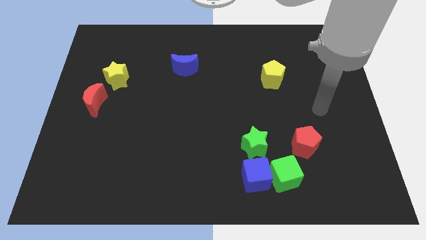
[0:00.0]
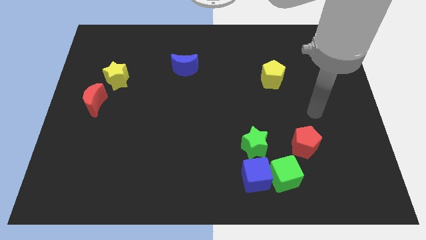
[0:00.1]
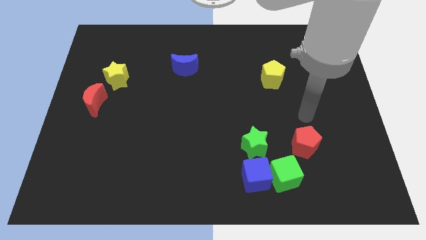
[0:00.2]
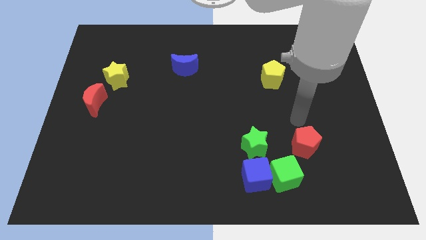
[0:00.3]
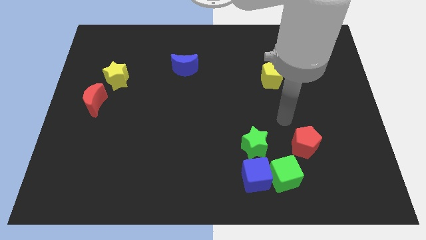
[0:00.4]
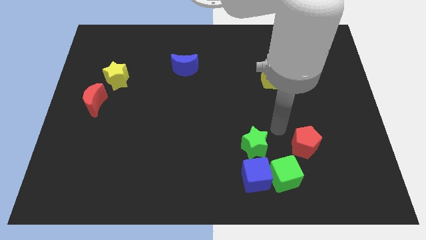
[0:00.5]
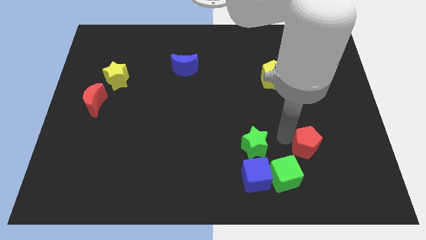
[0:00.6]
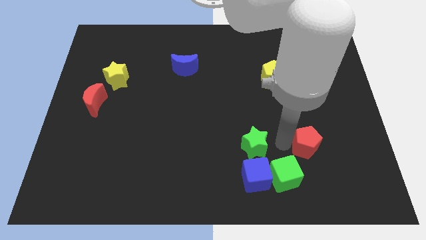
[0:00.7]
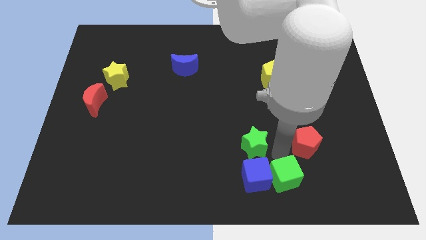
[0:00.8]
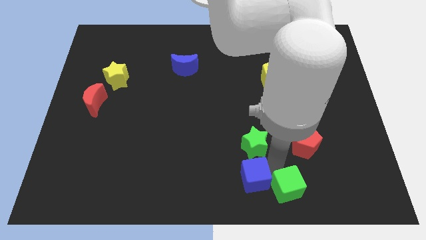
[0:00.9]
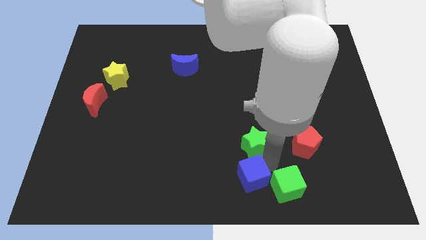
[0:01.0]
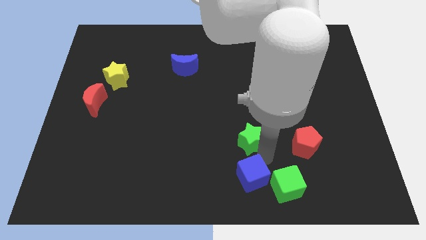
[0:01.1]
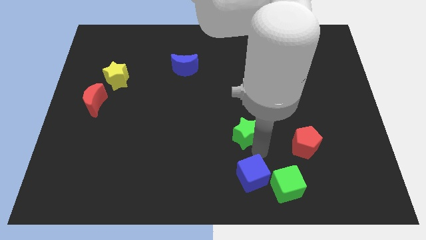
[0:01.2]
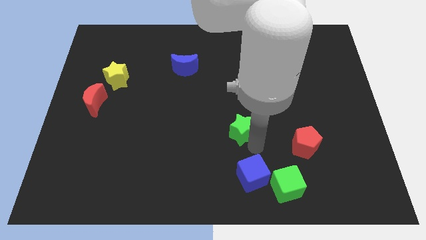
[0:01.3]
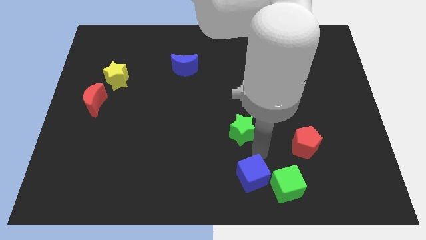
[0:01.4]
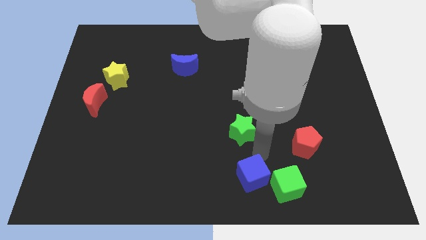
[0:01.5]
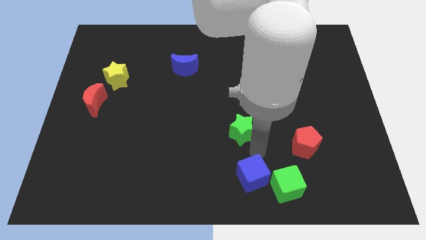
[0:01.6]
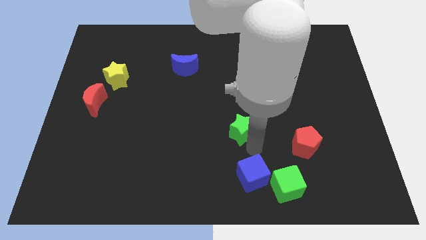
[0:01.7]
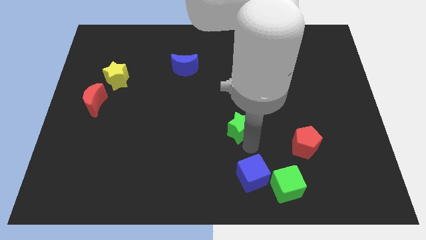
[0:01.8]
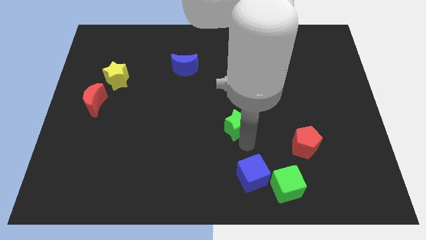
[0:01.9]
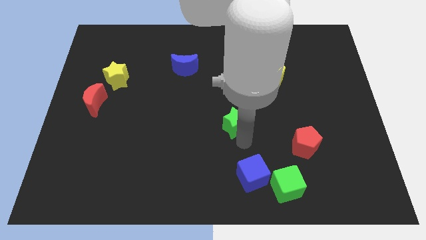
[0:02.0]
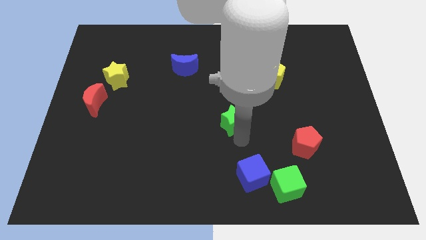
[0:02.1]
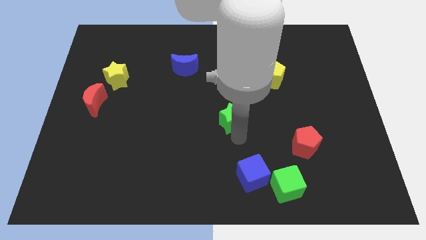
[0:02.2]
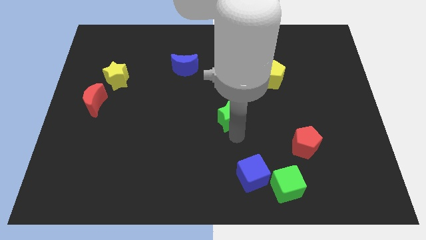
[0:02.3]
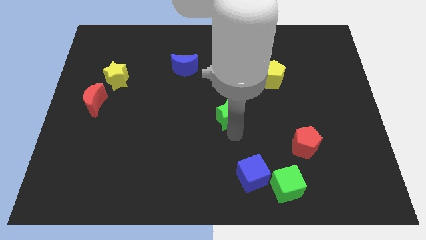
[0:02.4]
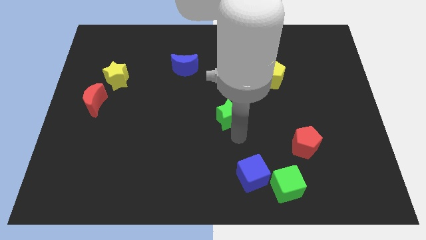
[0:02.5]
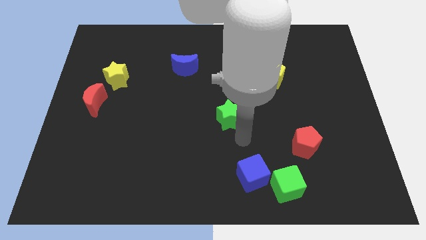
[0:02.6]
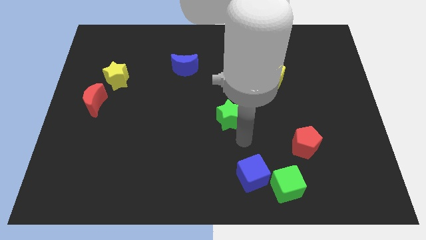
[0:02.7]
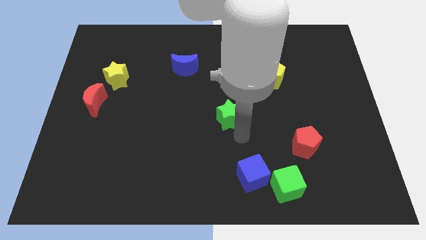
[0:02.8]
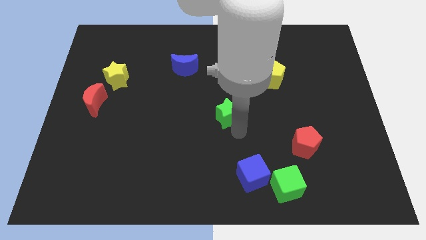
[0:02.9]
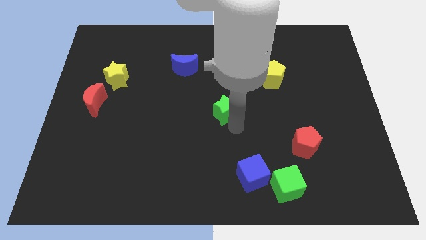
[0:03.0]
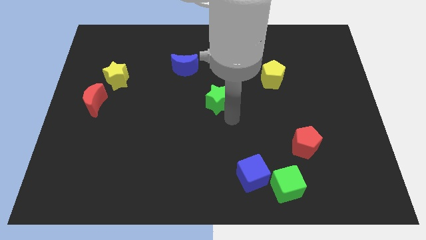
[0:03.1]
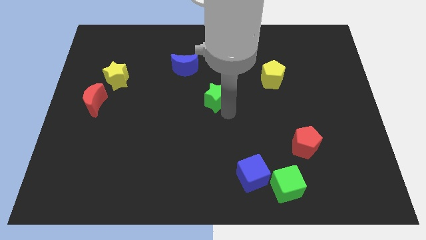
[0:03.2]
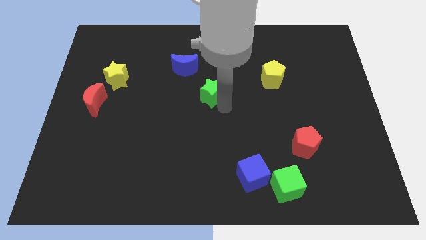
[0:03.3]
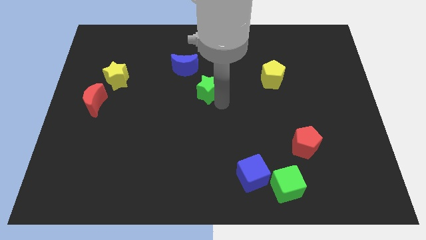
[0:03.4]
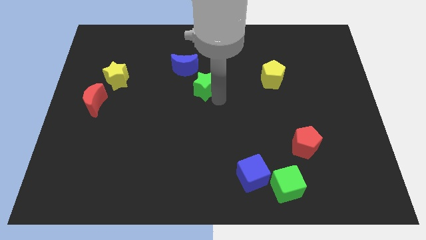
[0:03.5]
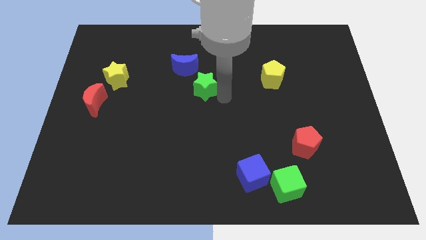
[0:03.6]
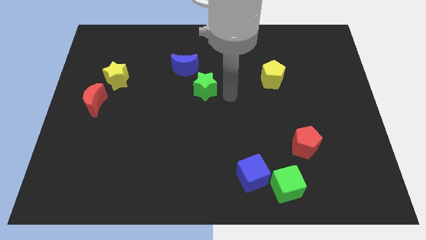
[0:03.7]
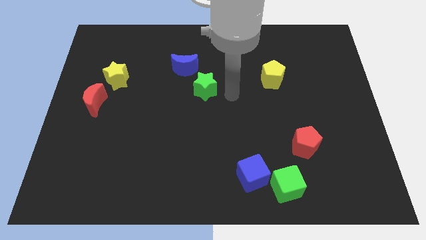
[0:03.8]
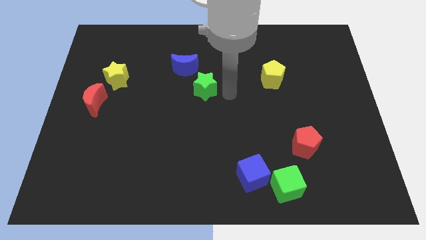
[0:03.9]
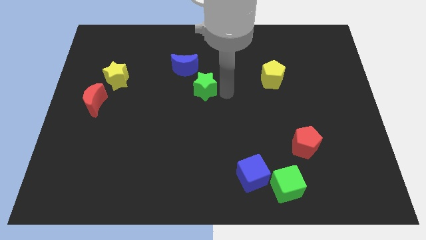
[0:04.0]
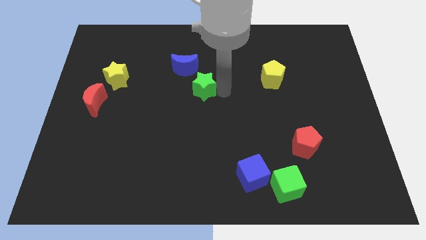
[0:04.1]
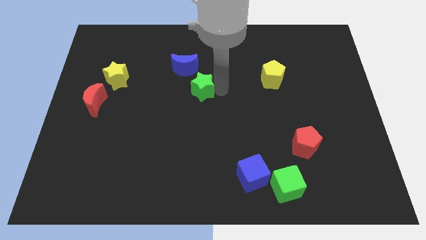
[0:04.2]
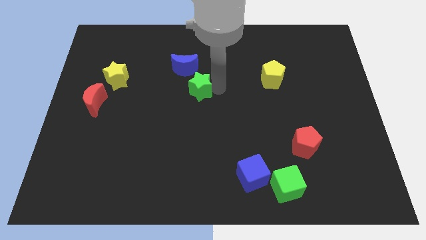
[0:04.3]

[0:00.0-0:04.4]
move the green star upwards and then to the left

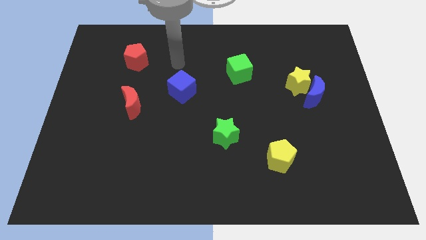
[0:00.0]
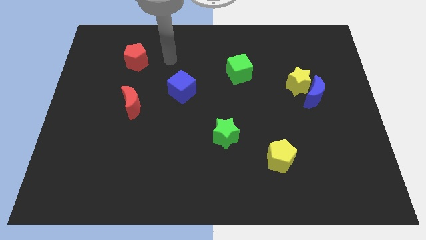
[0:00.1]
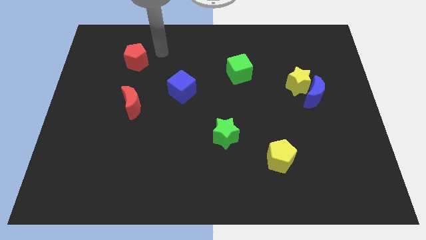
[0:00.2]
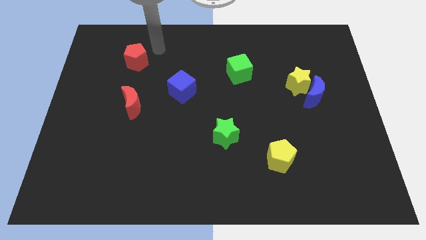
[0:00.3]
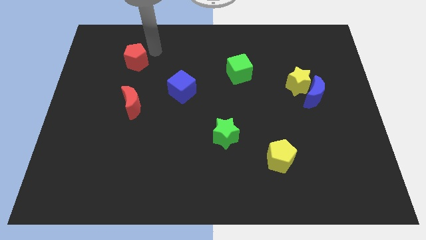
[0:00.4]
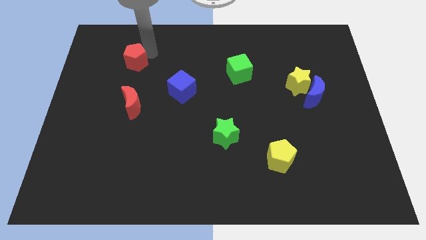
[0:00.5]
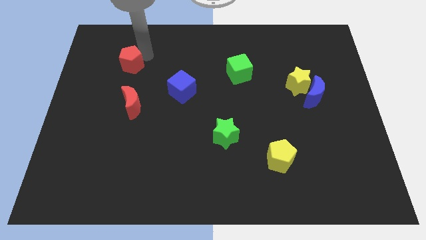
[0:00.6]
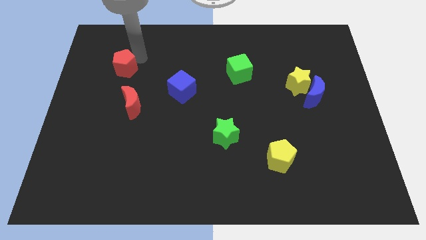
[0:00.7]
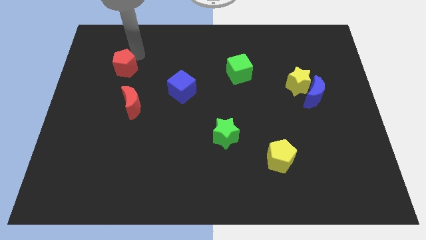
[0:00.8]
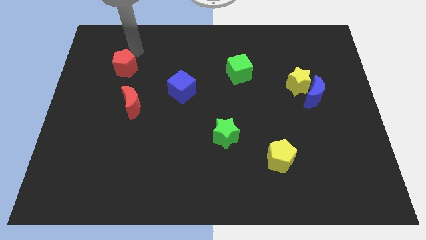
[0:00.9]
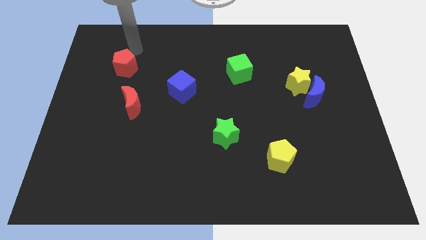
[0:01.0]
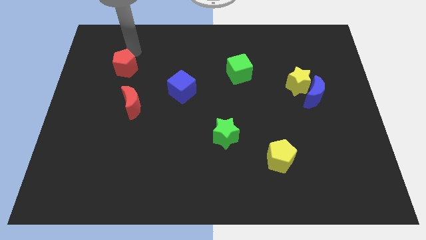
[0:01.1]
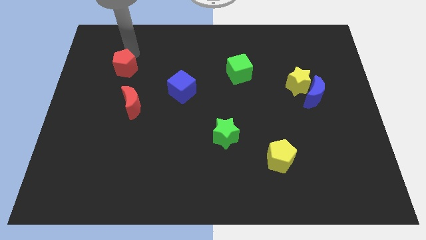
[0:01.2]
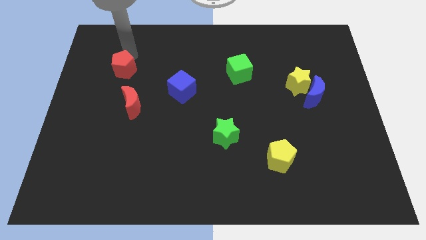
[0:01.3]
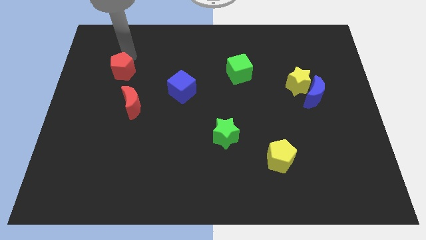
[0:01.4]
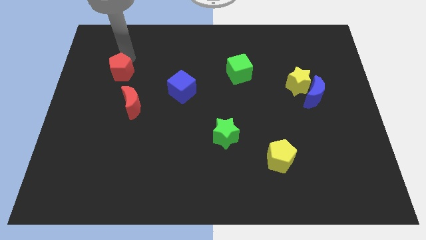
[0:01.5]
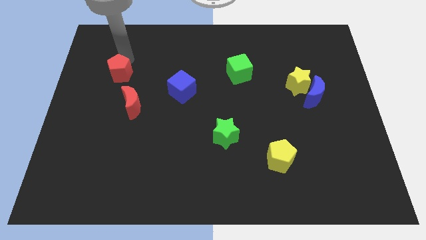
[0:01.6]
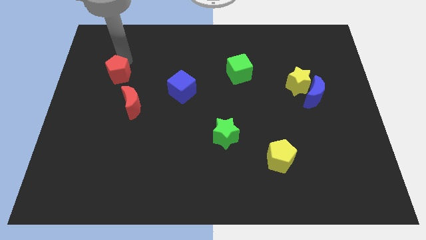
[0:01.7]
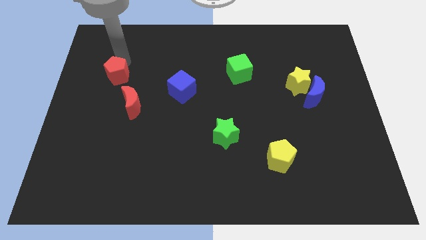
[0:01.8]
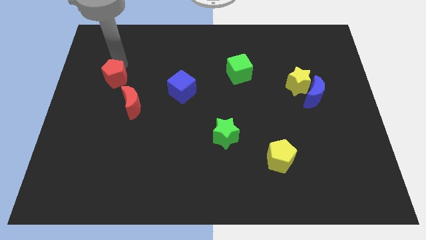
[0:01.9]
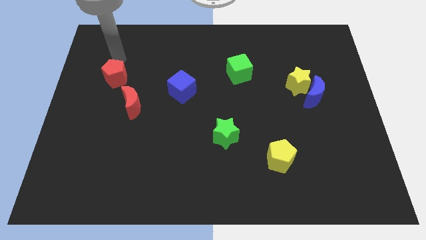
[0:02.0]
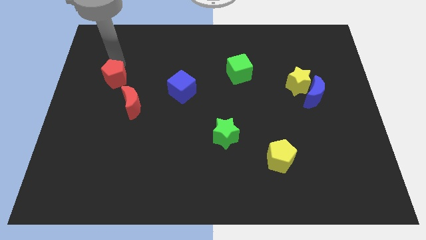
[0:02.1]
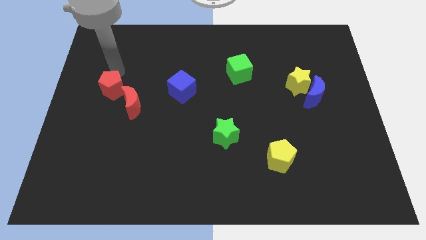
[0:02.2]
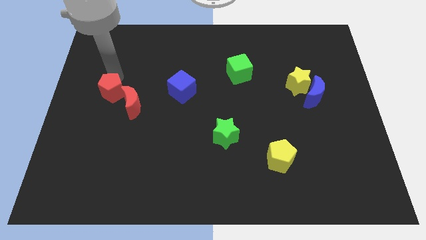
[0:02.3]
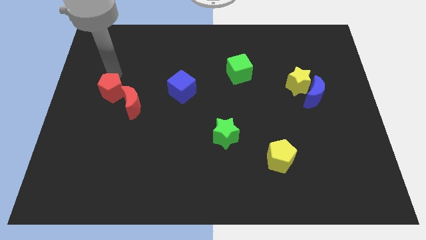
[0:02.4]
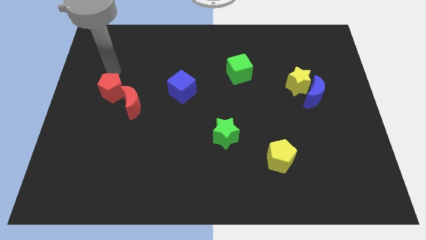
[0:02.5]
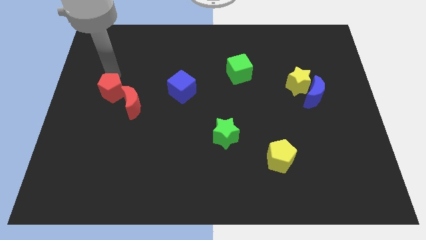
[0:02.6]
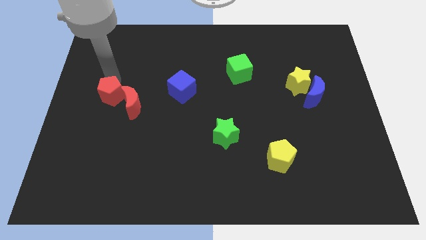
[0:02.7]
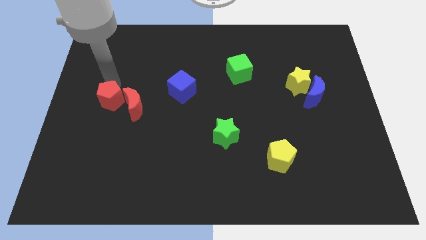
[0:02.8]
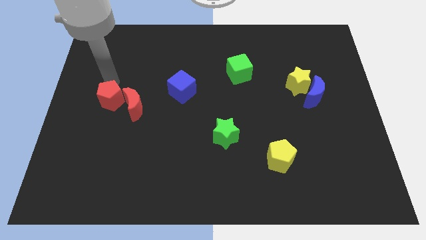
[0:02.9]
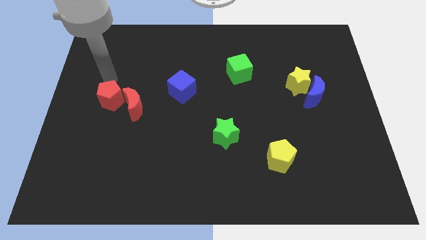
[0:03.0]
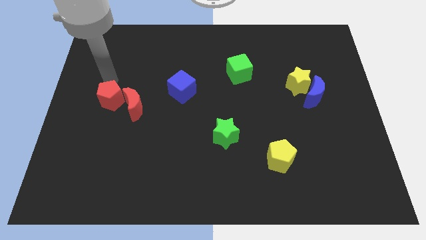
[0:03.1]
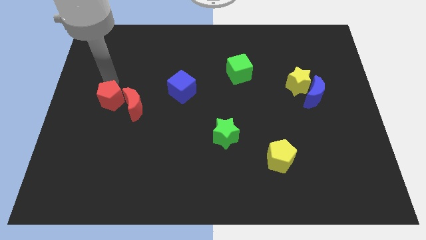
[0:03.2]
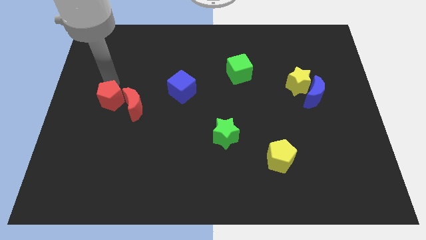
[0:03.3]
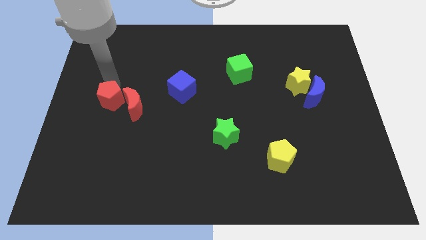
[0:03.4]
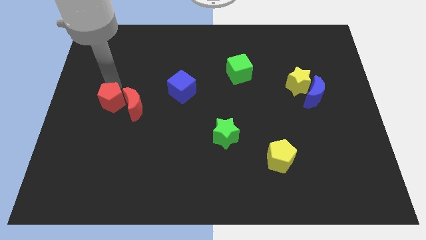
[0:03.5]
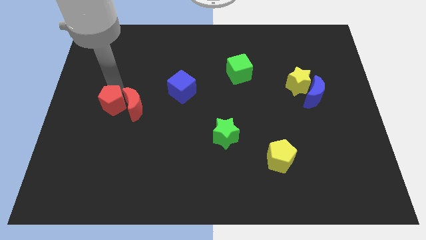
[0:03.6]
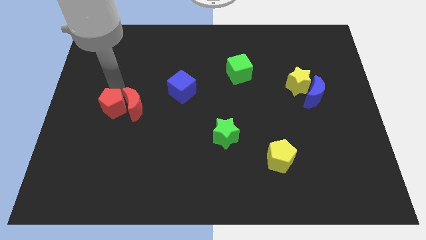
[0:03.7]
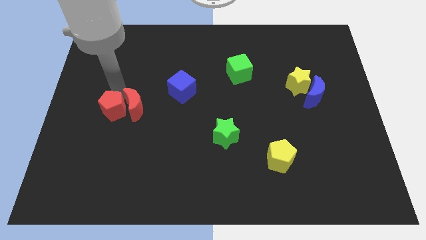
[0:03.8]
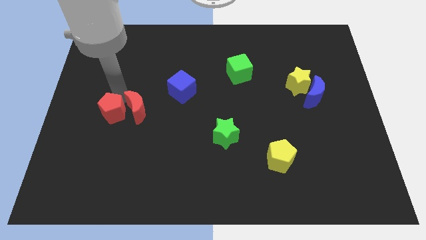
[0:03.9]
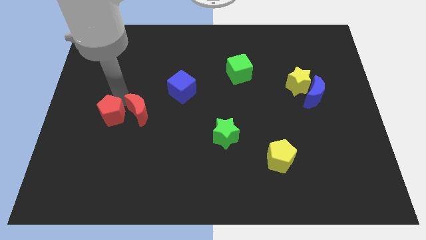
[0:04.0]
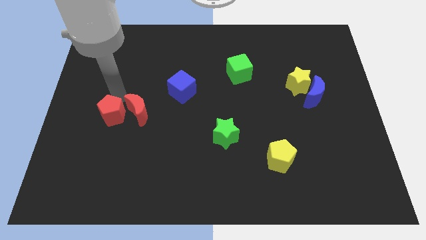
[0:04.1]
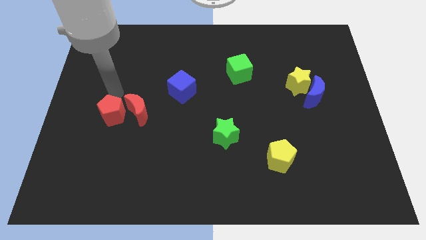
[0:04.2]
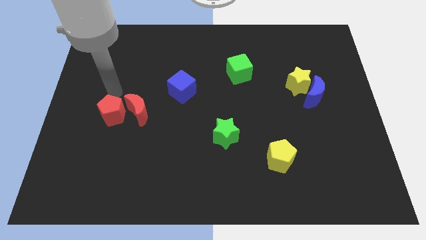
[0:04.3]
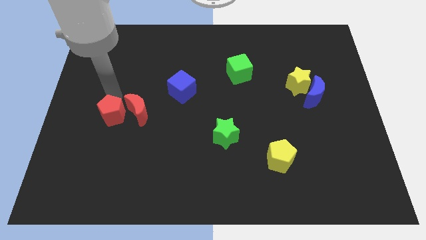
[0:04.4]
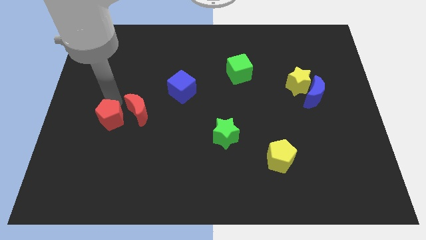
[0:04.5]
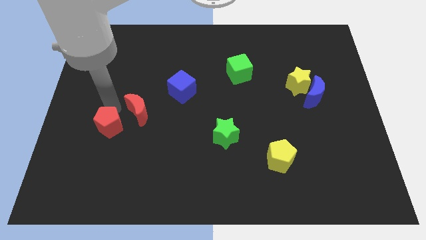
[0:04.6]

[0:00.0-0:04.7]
push the red pentagon down
